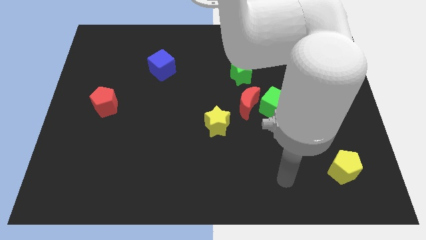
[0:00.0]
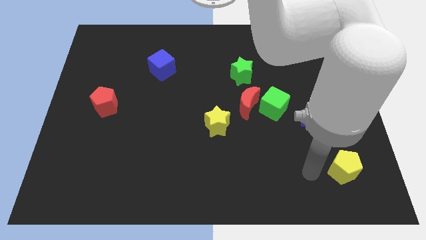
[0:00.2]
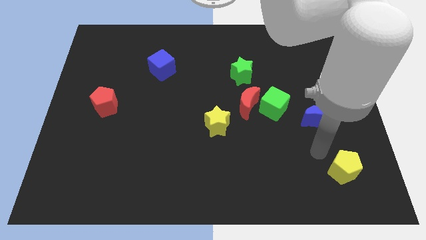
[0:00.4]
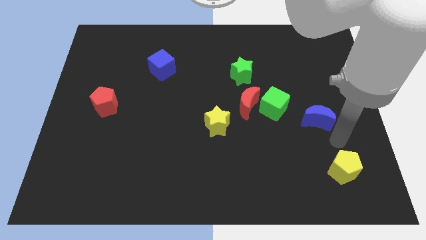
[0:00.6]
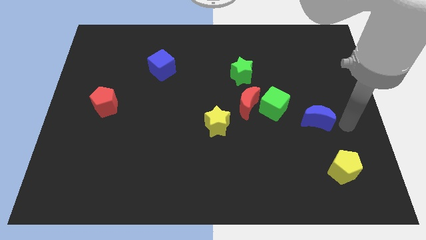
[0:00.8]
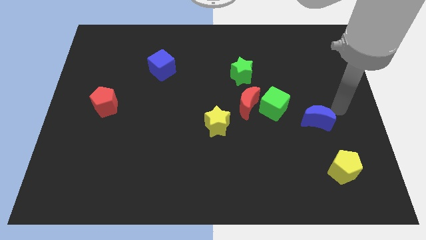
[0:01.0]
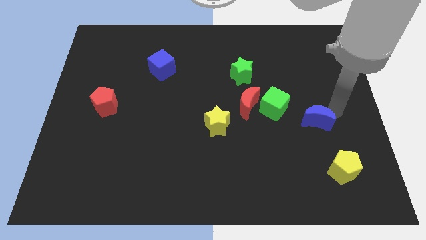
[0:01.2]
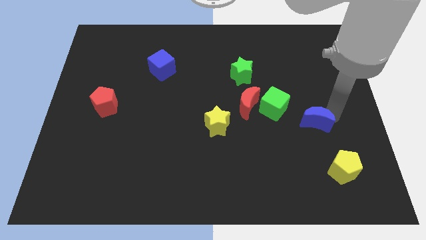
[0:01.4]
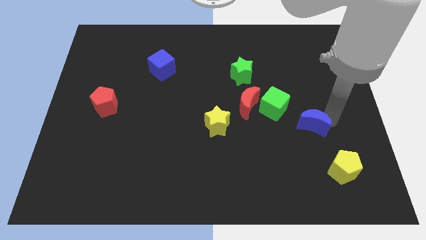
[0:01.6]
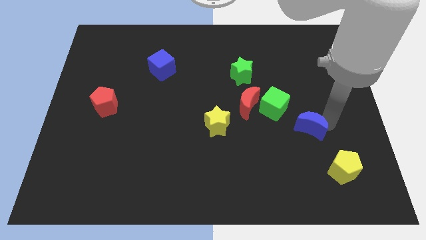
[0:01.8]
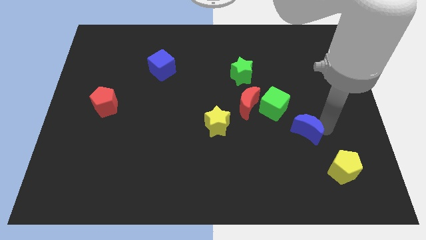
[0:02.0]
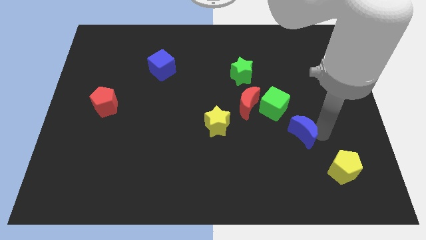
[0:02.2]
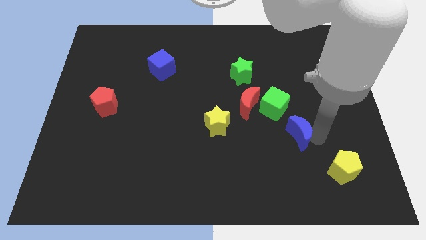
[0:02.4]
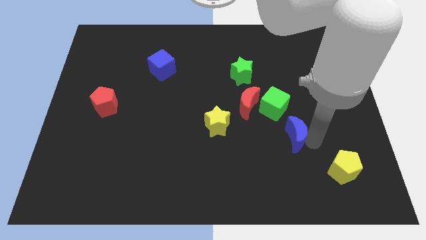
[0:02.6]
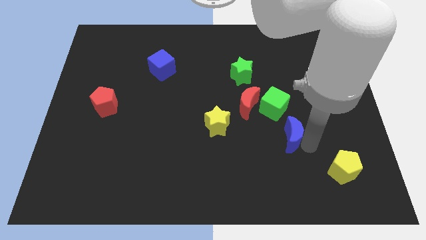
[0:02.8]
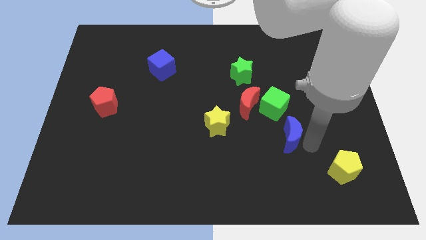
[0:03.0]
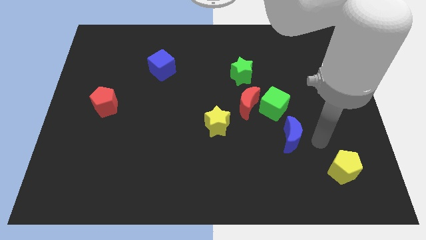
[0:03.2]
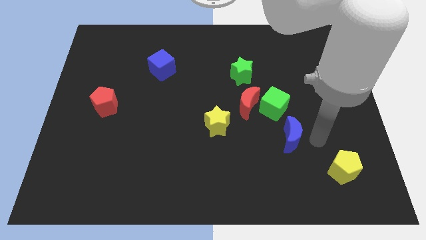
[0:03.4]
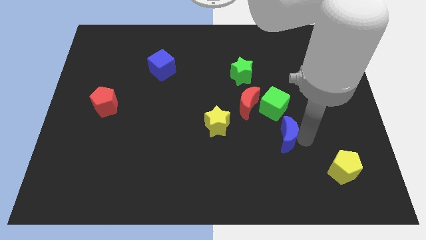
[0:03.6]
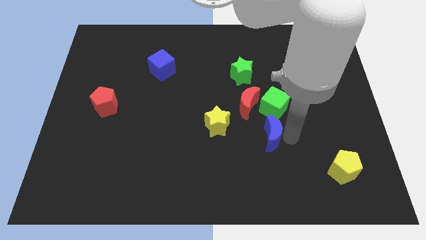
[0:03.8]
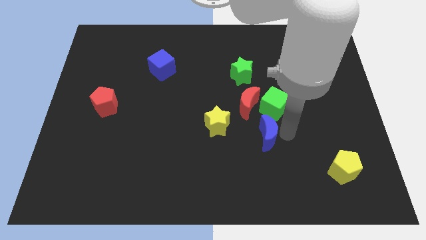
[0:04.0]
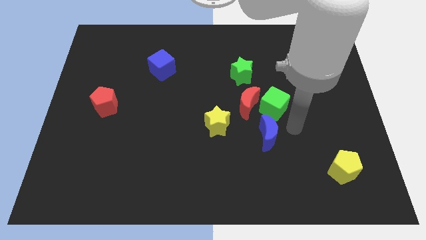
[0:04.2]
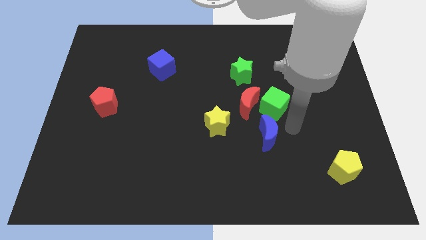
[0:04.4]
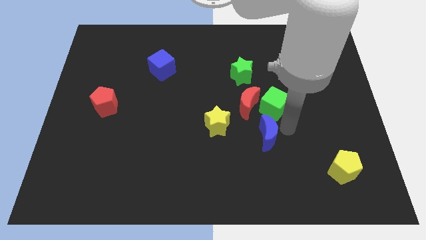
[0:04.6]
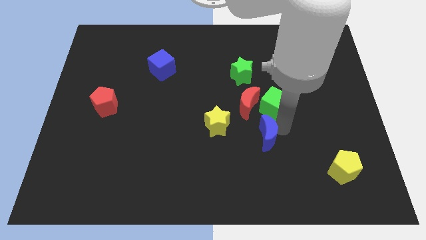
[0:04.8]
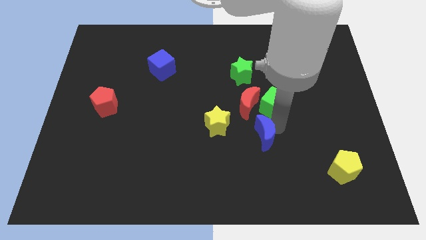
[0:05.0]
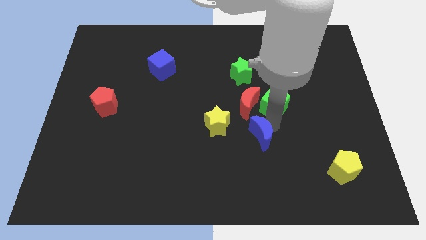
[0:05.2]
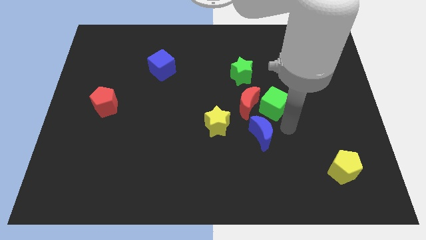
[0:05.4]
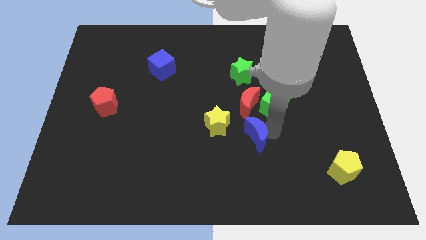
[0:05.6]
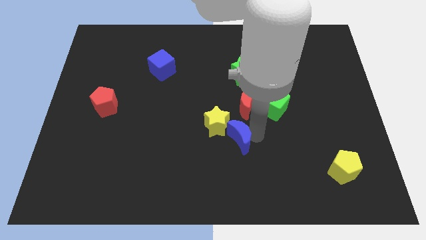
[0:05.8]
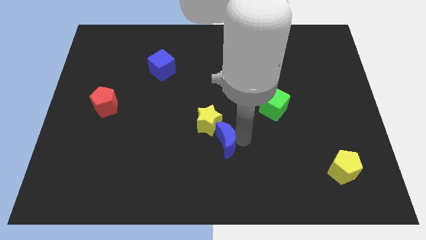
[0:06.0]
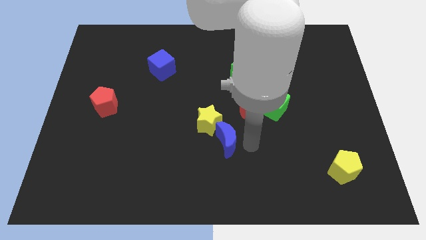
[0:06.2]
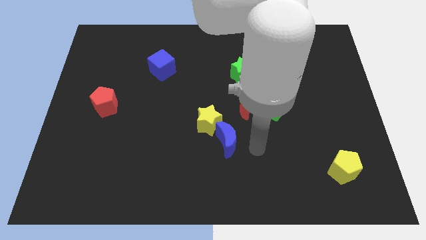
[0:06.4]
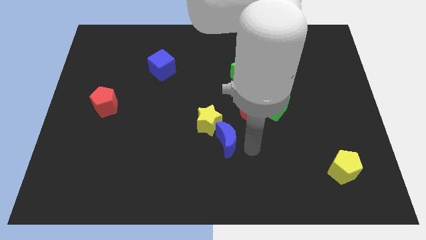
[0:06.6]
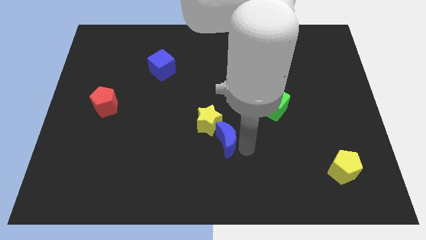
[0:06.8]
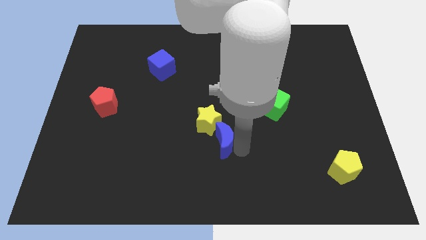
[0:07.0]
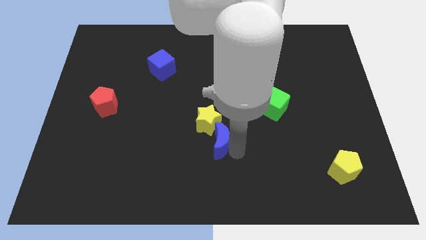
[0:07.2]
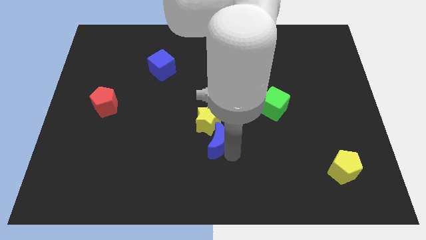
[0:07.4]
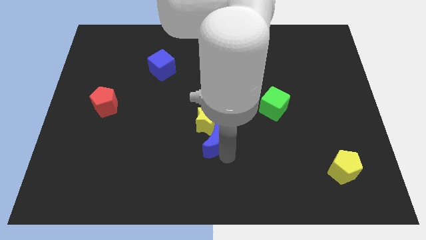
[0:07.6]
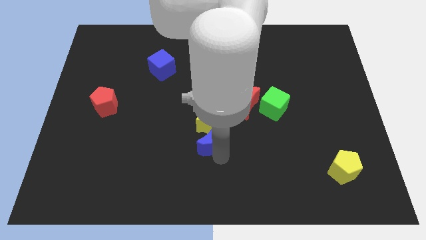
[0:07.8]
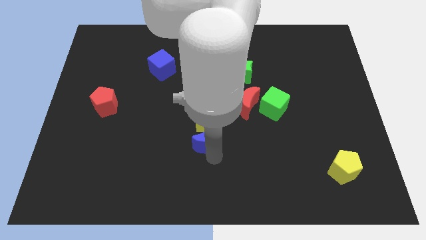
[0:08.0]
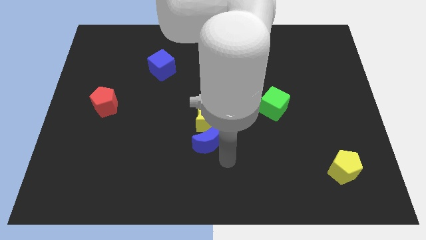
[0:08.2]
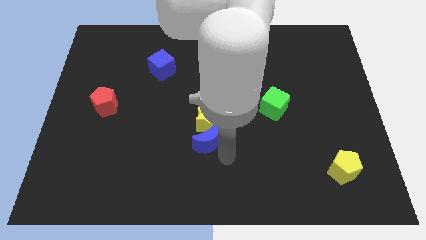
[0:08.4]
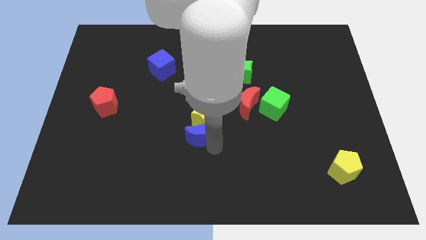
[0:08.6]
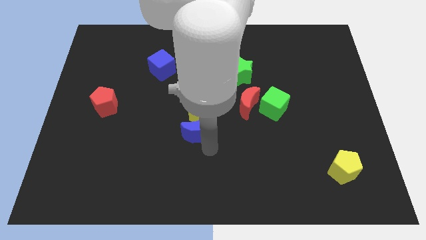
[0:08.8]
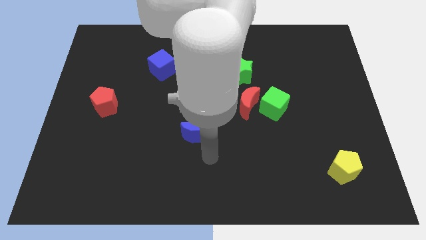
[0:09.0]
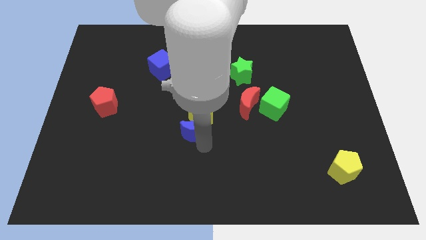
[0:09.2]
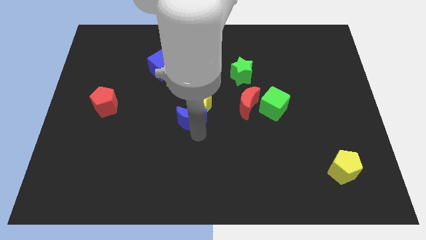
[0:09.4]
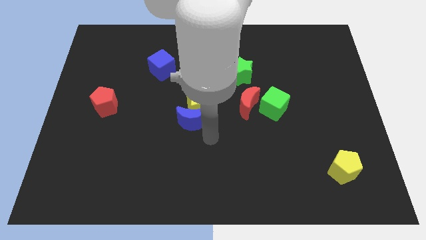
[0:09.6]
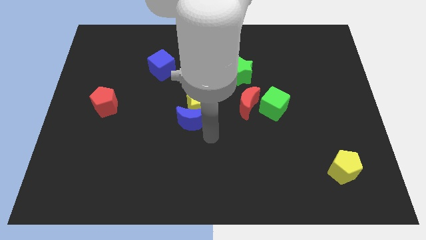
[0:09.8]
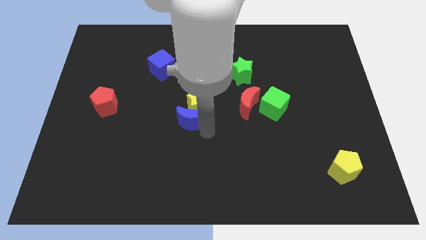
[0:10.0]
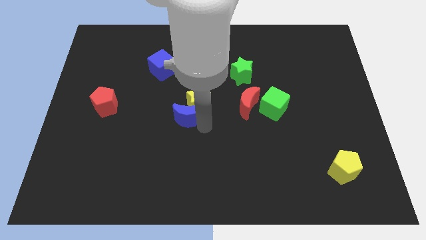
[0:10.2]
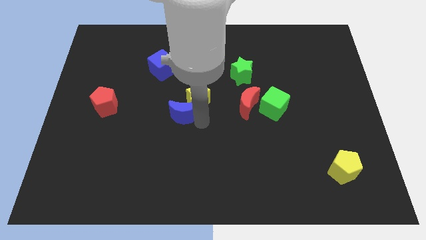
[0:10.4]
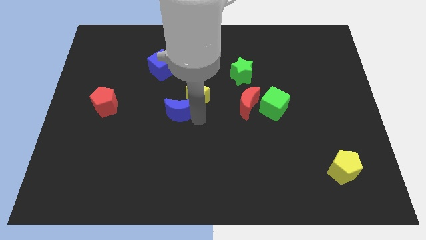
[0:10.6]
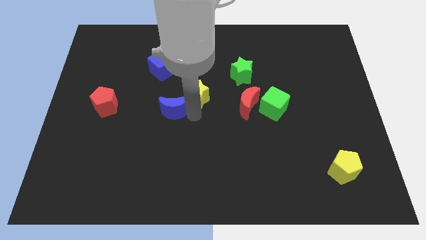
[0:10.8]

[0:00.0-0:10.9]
put the blue moon below the blue cube
